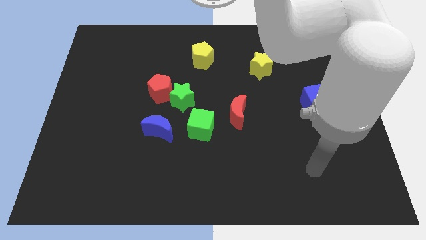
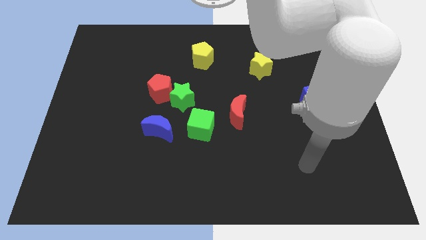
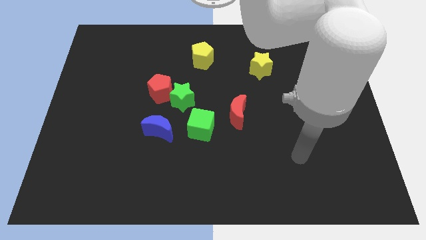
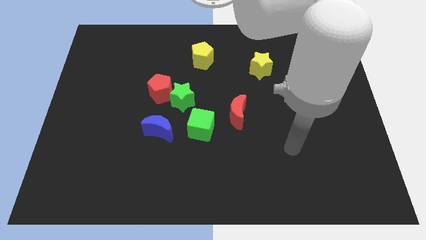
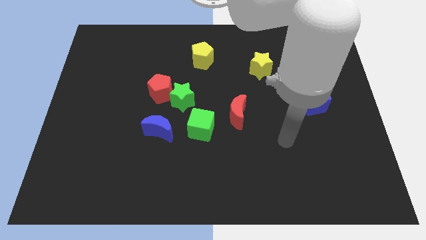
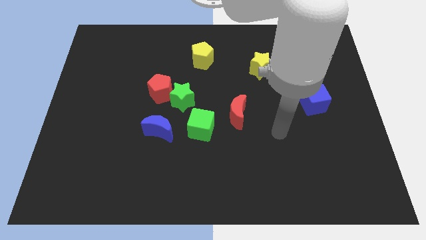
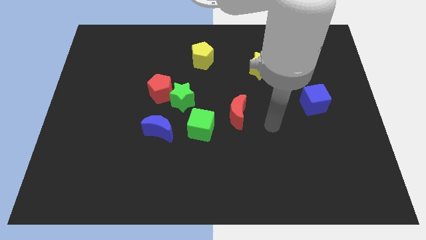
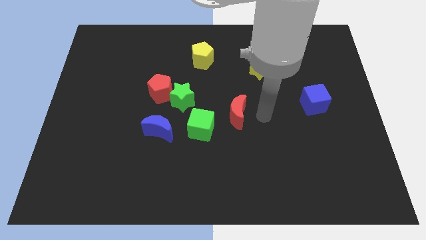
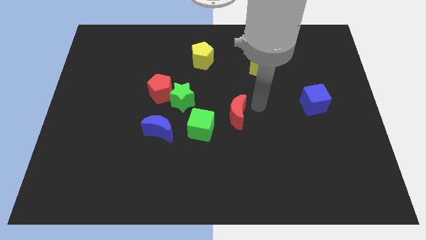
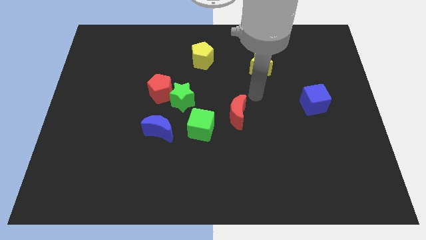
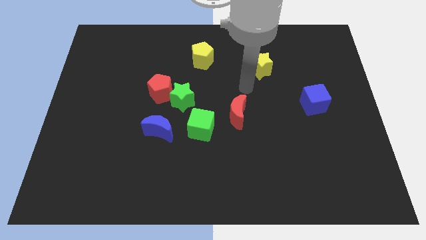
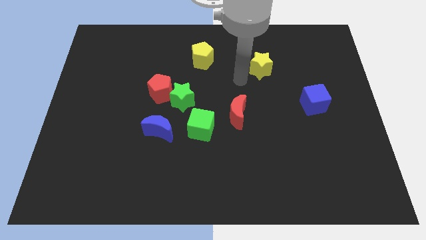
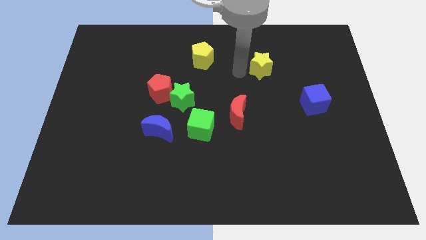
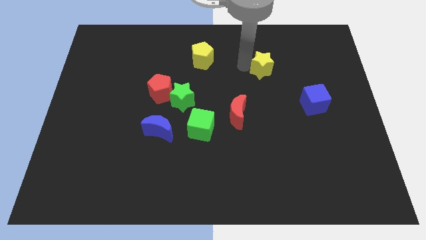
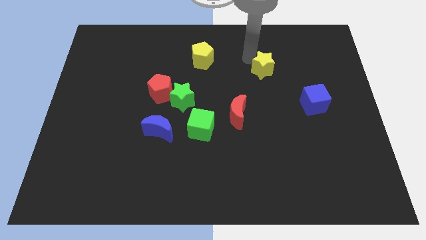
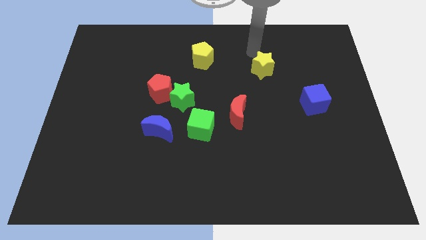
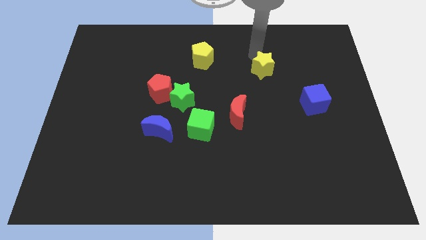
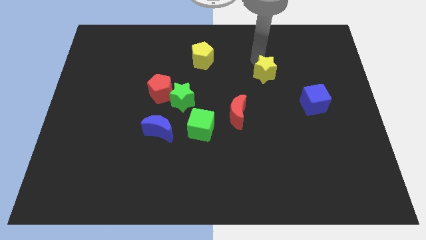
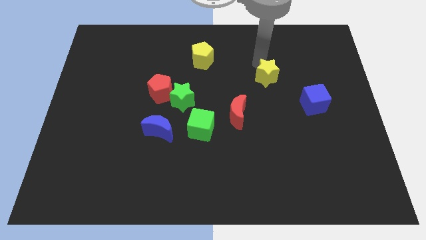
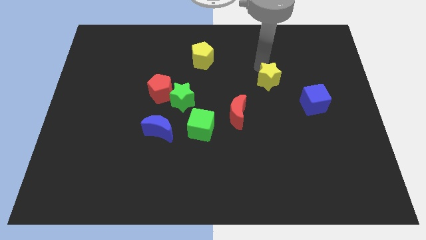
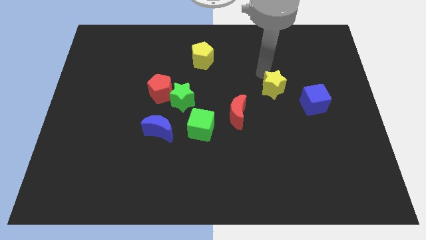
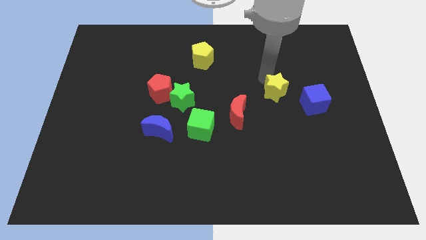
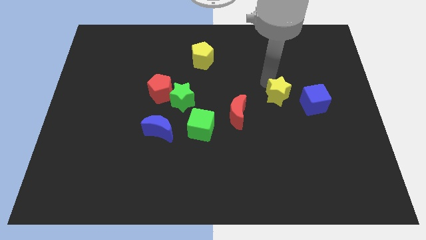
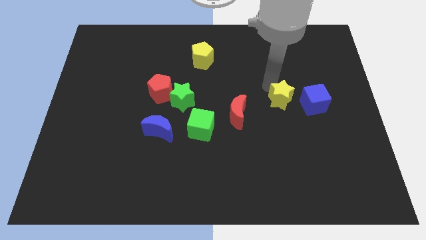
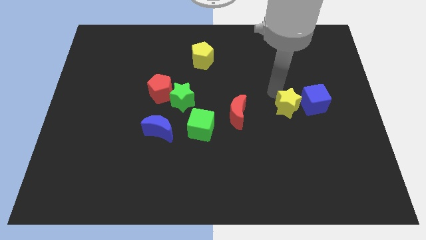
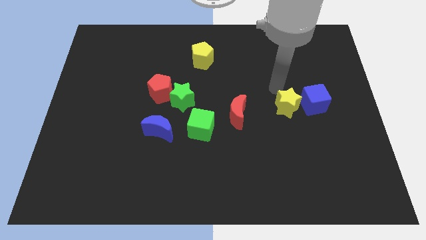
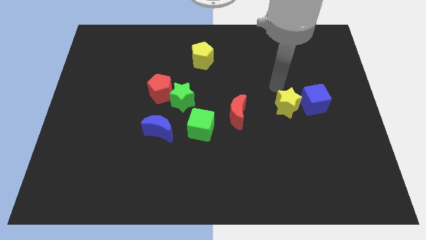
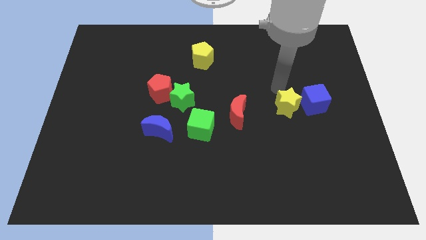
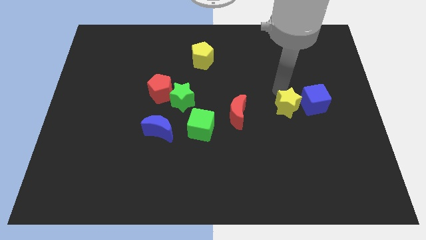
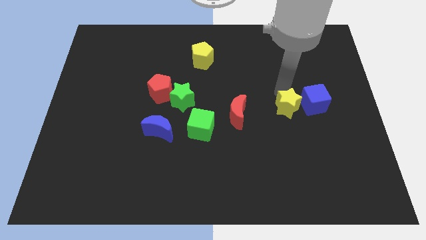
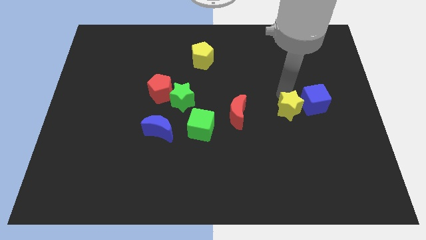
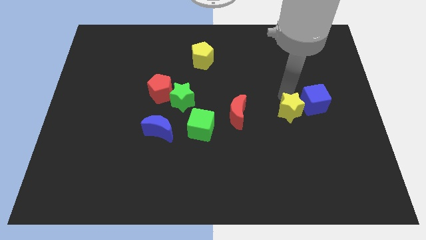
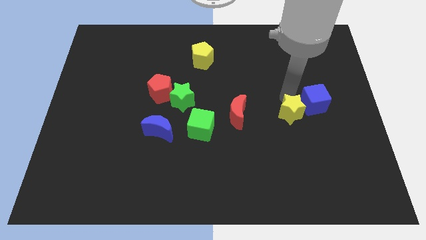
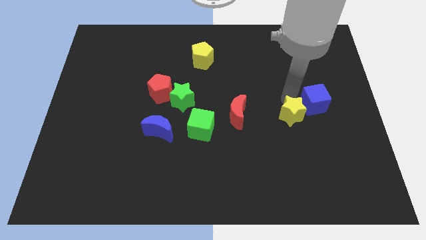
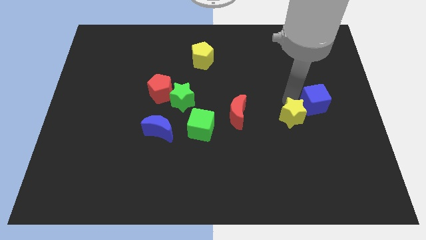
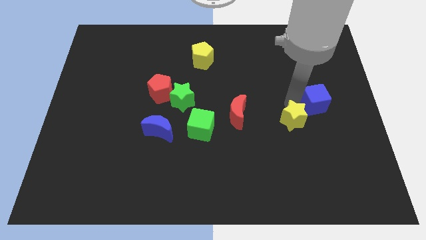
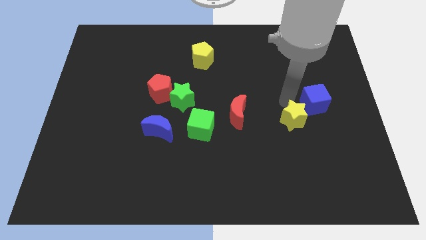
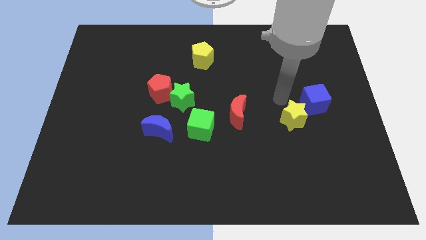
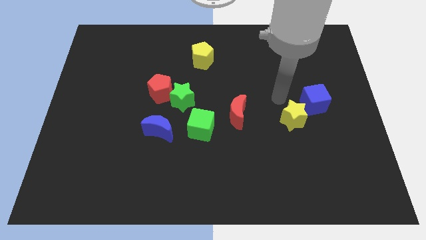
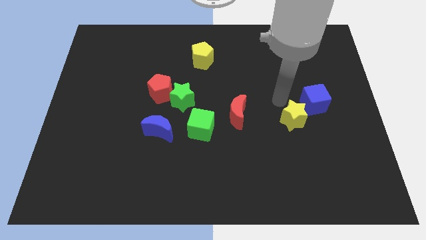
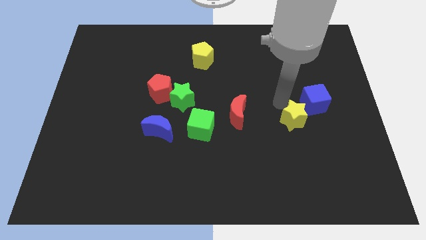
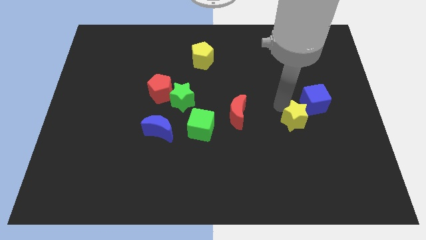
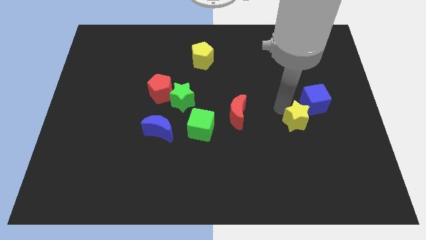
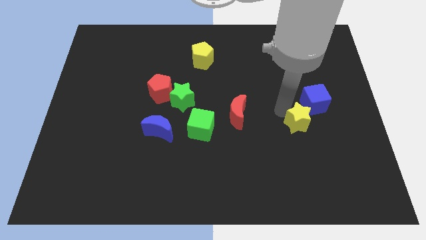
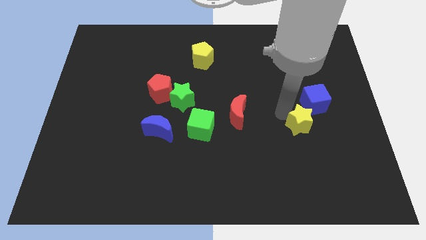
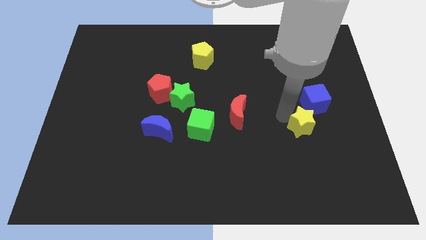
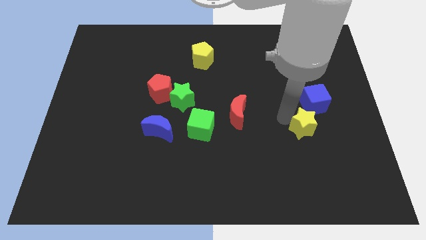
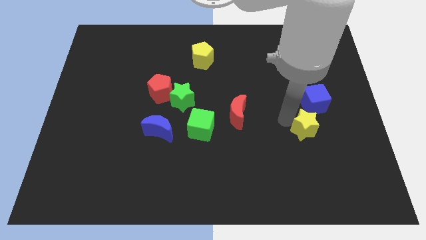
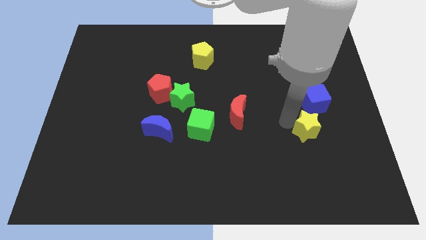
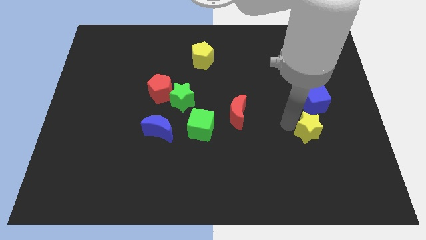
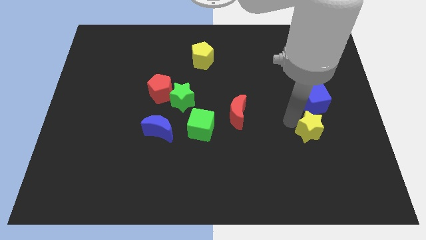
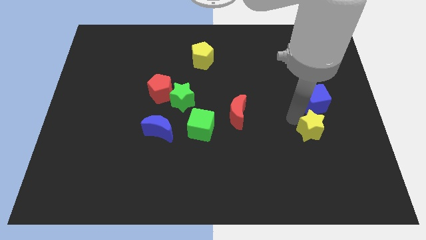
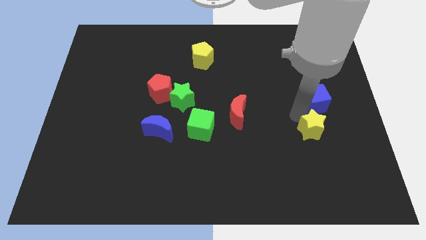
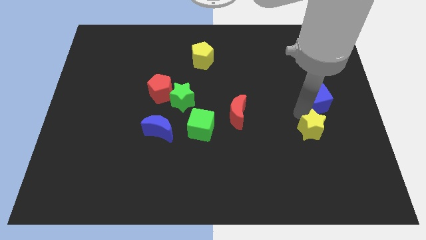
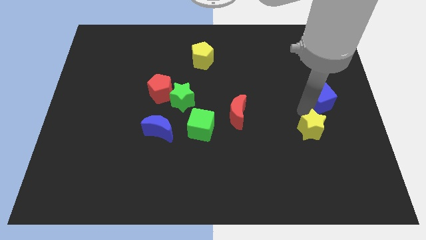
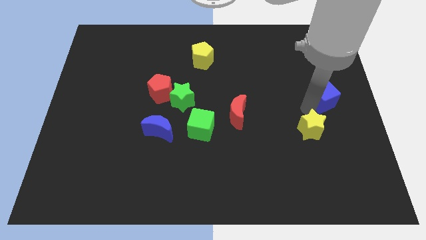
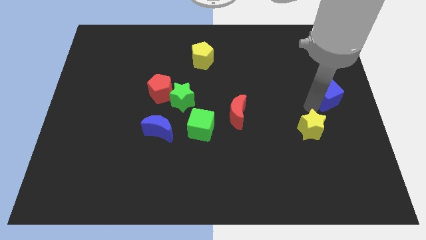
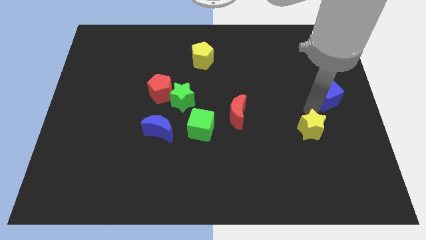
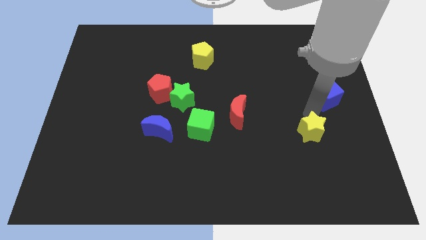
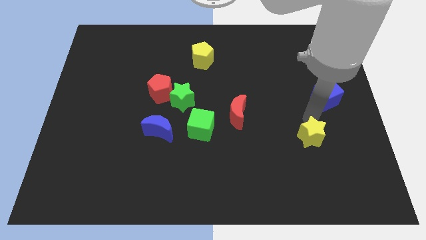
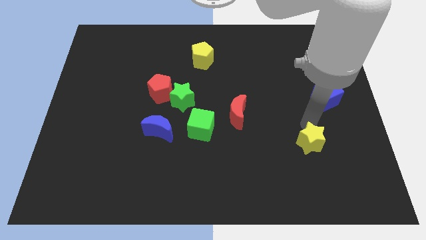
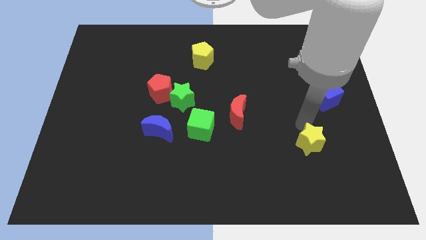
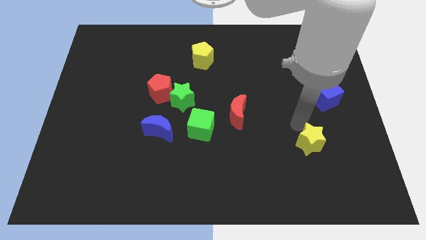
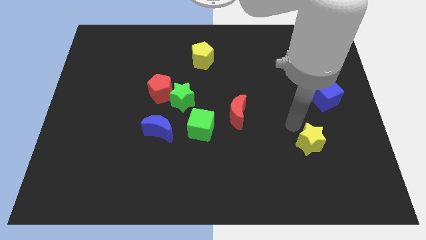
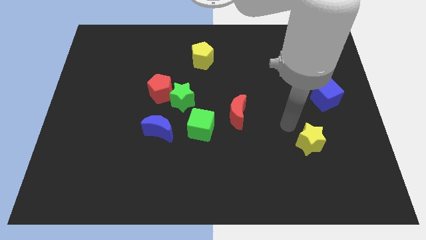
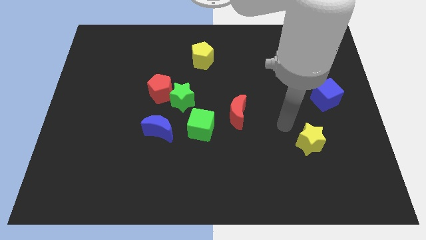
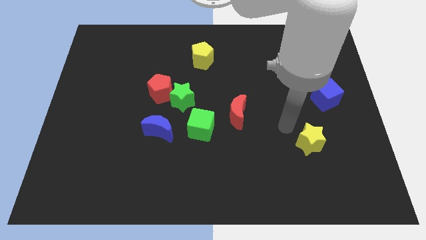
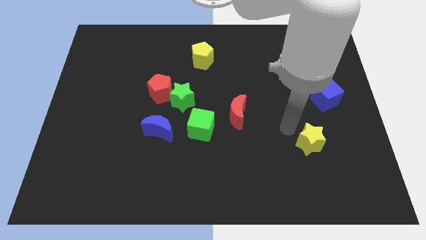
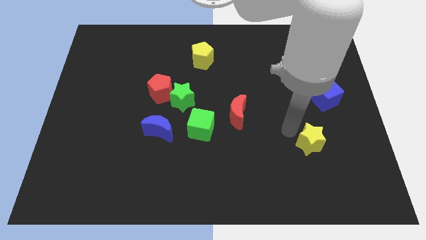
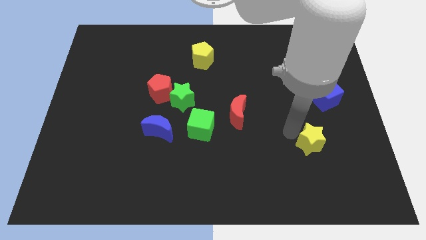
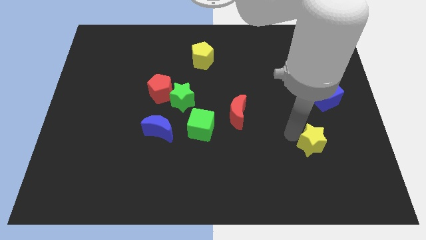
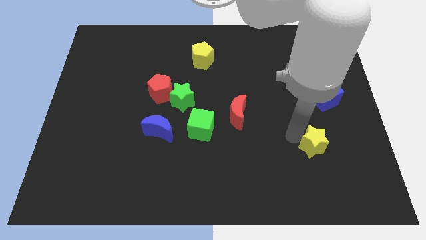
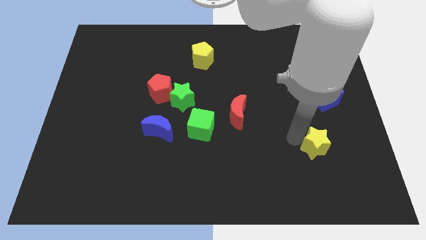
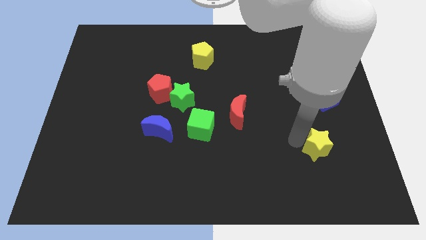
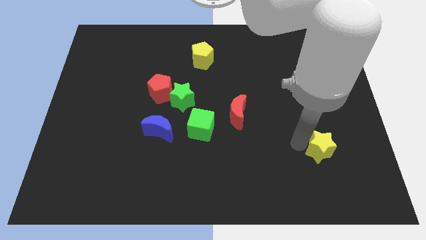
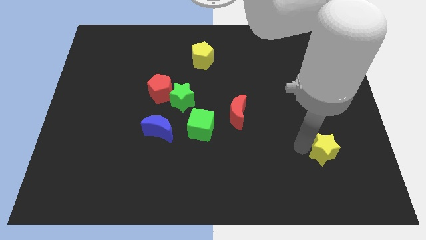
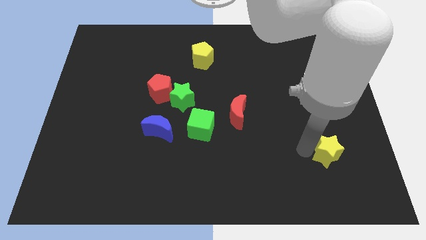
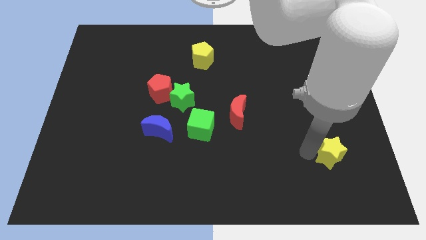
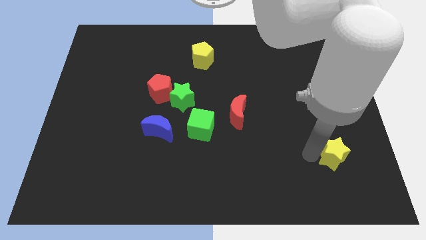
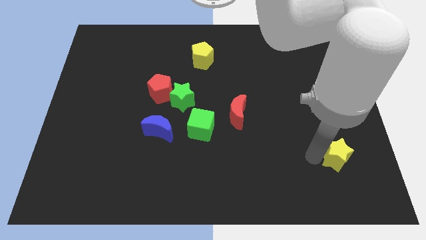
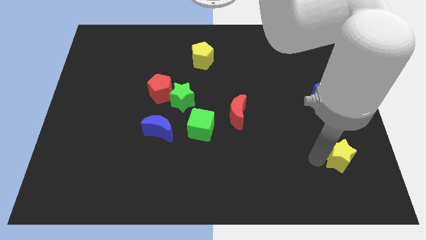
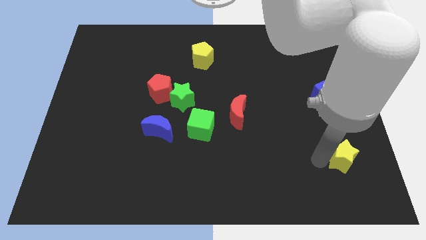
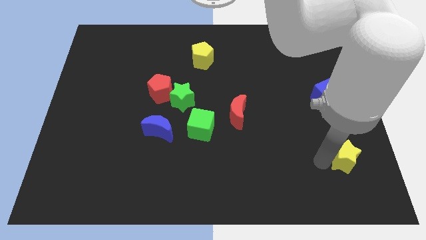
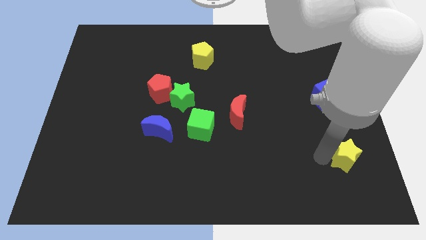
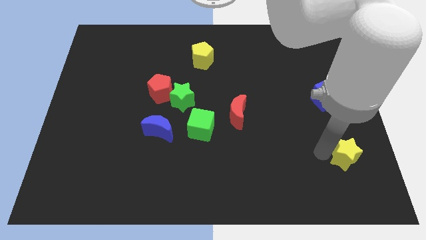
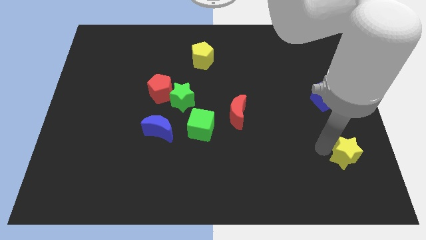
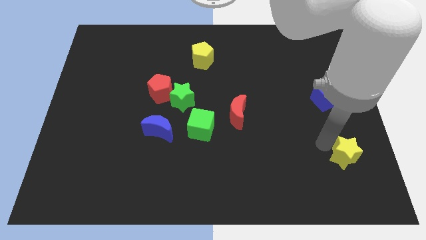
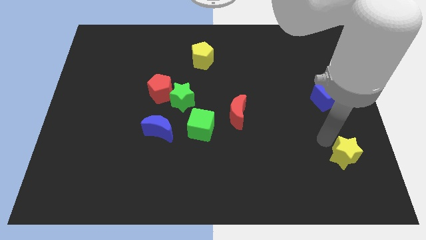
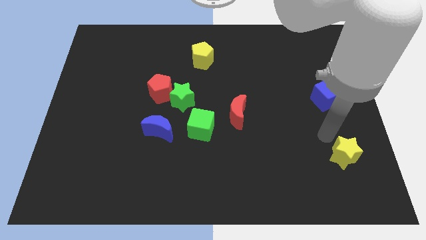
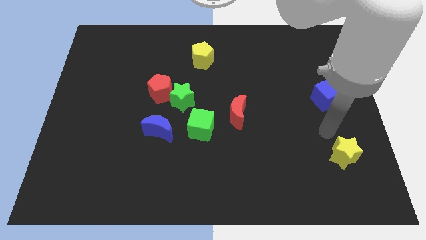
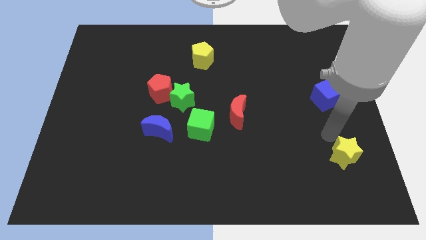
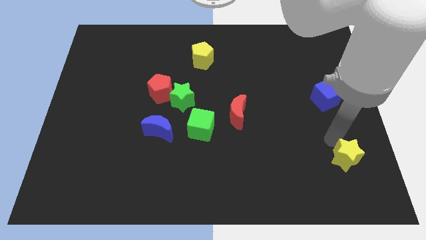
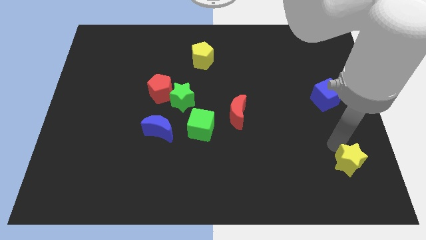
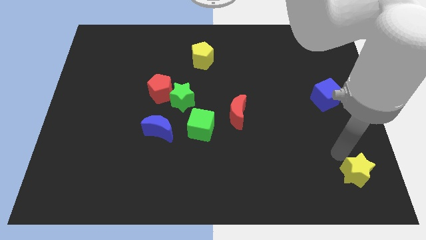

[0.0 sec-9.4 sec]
move the yellow star to the lower right corner
